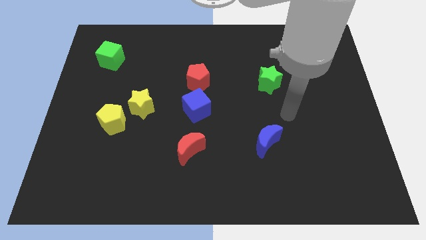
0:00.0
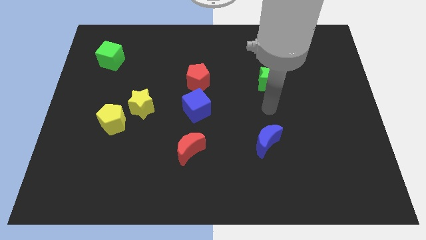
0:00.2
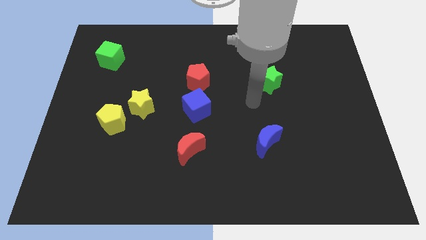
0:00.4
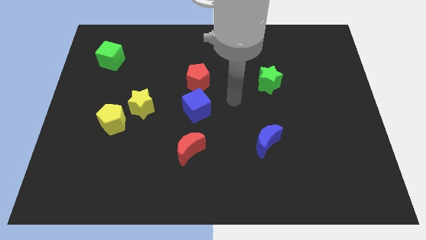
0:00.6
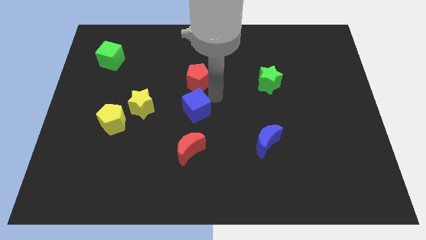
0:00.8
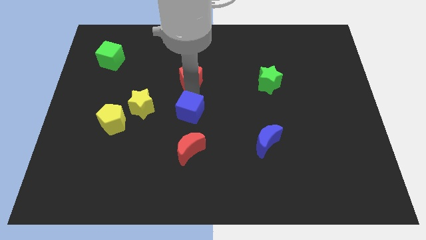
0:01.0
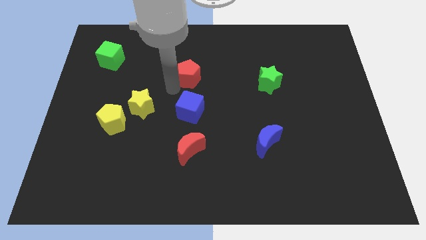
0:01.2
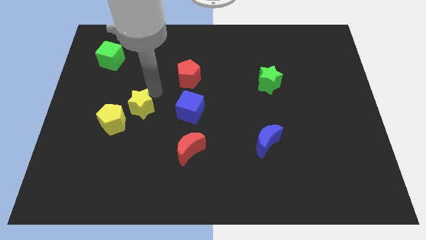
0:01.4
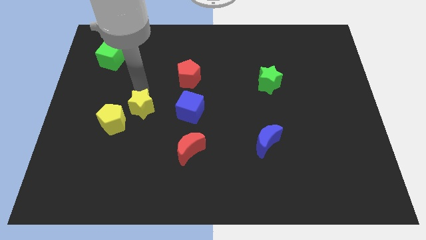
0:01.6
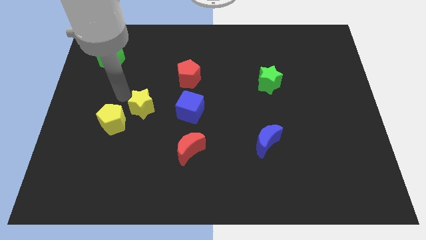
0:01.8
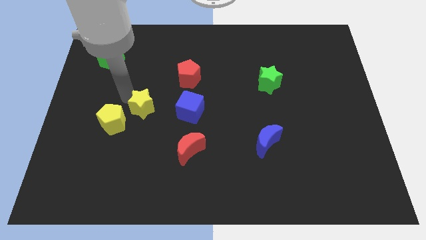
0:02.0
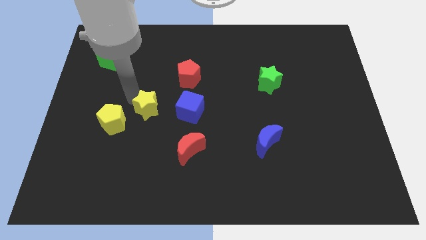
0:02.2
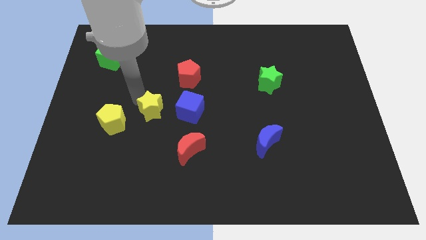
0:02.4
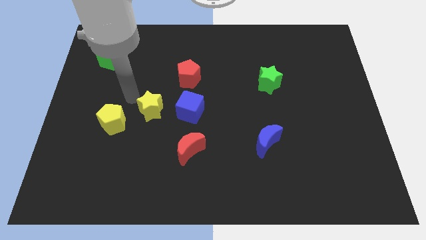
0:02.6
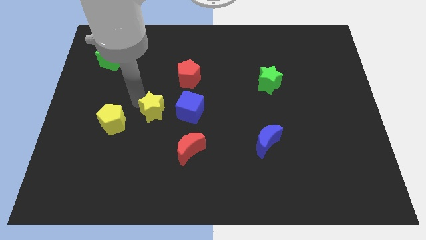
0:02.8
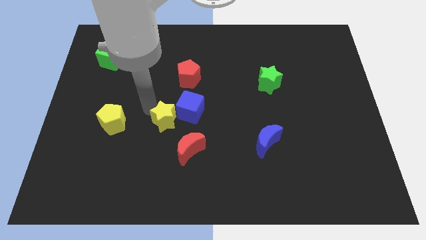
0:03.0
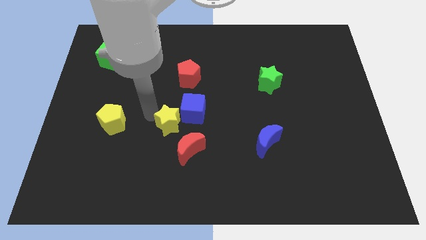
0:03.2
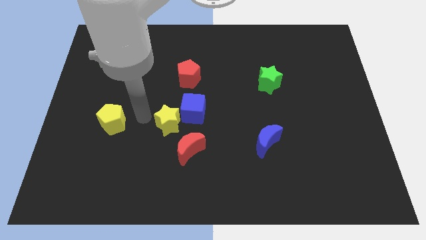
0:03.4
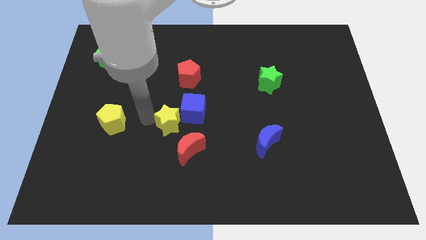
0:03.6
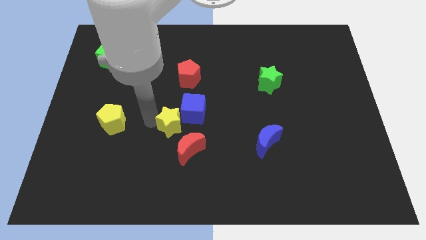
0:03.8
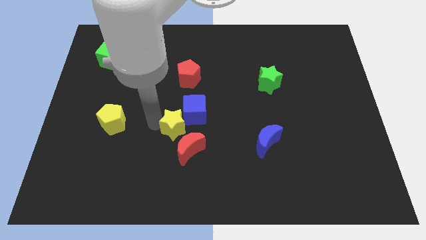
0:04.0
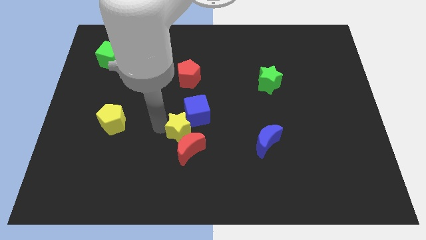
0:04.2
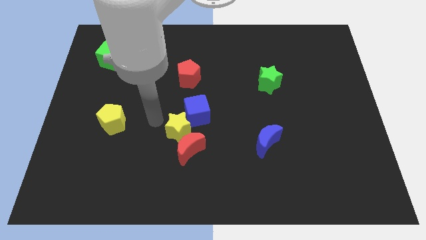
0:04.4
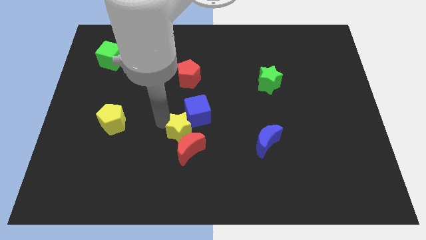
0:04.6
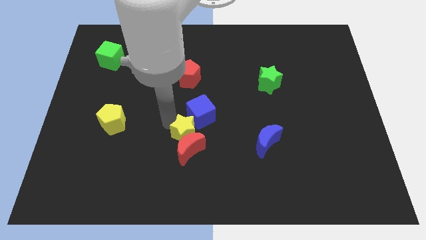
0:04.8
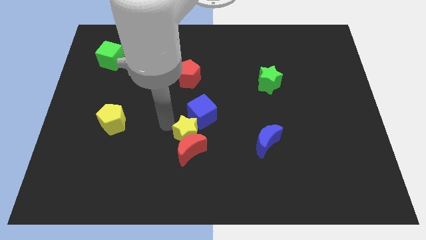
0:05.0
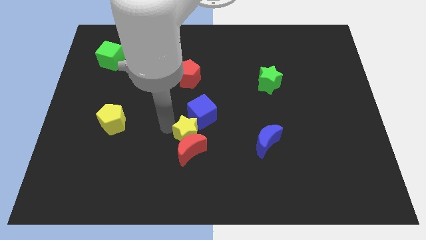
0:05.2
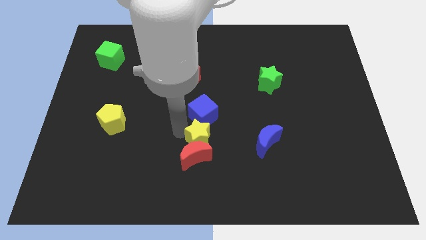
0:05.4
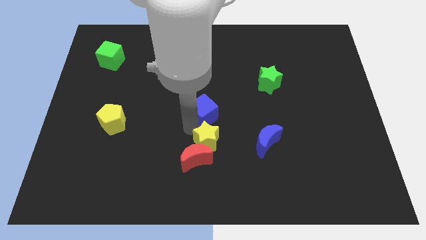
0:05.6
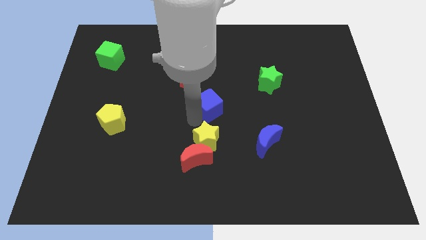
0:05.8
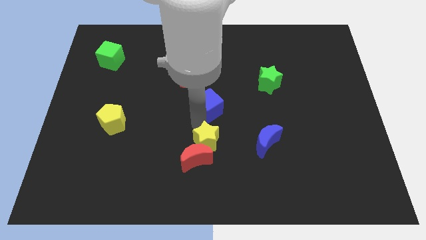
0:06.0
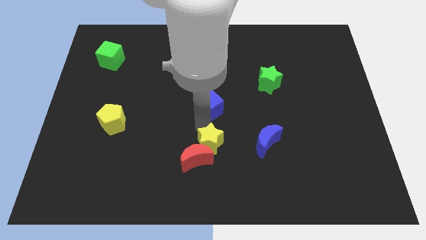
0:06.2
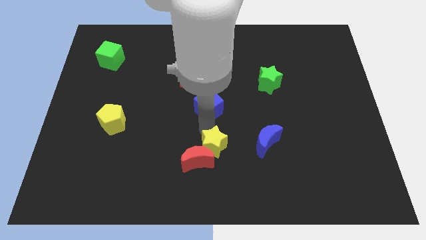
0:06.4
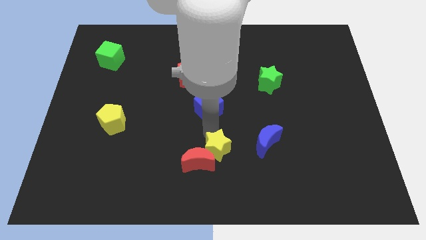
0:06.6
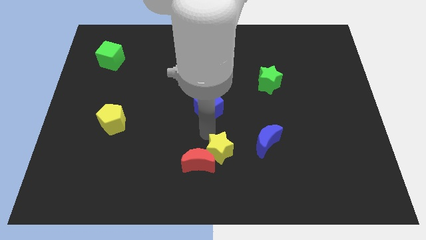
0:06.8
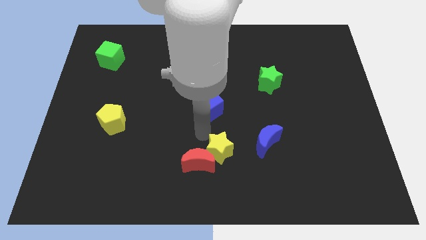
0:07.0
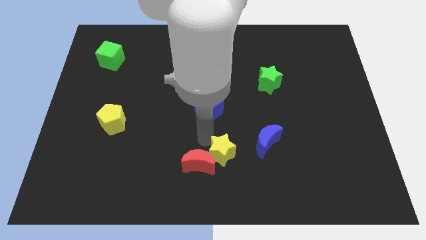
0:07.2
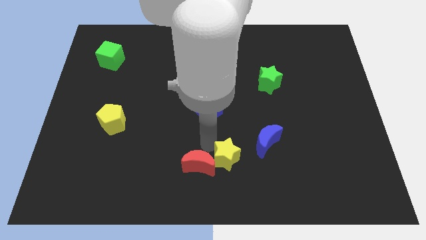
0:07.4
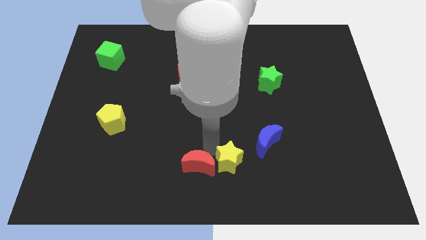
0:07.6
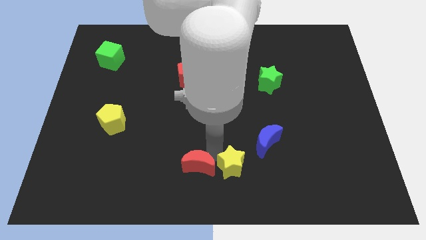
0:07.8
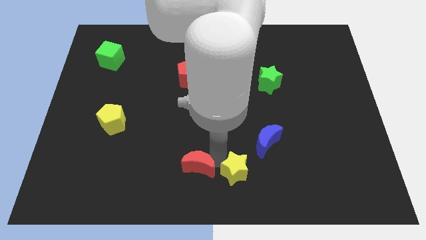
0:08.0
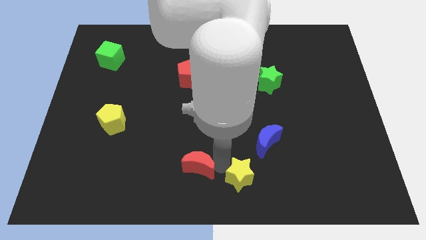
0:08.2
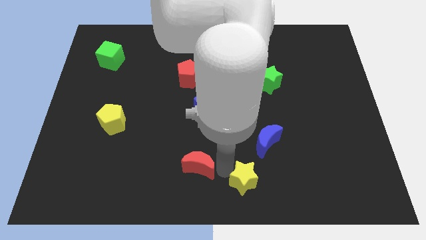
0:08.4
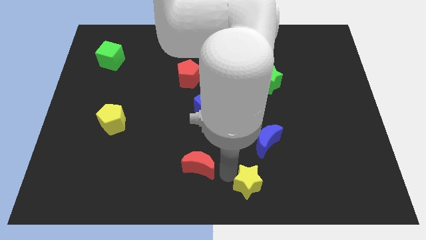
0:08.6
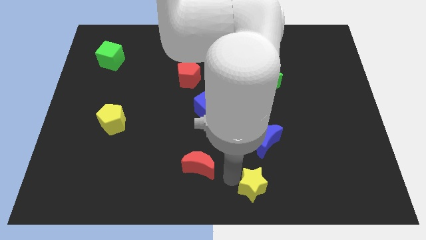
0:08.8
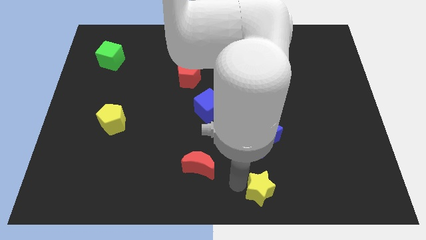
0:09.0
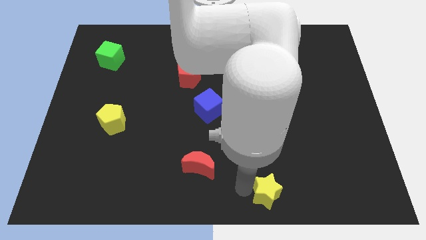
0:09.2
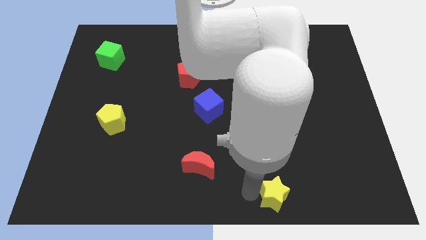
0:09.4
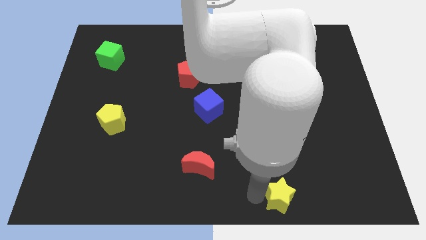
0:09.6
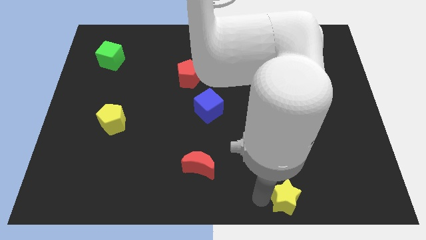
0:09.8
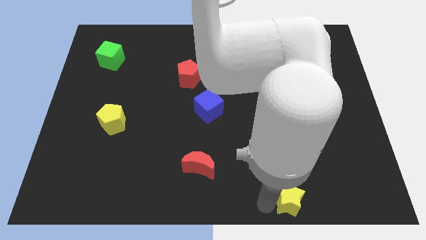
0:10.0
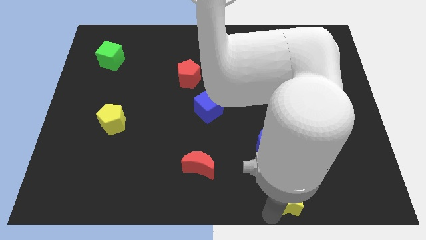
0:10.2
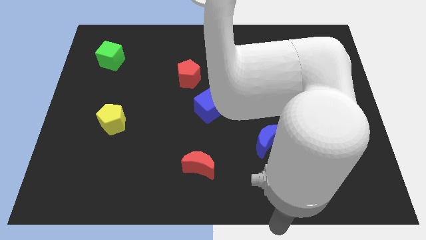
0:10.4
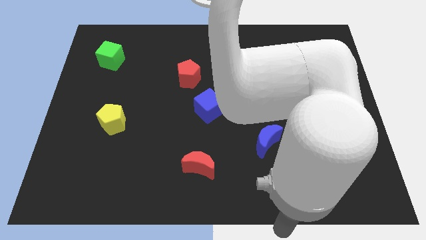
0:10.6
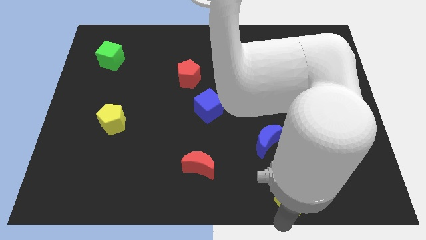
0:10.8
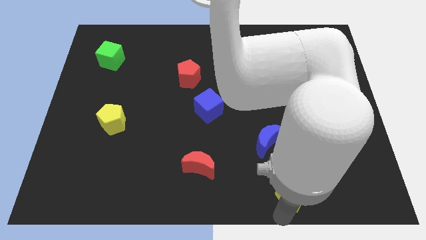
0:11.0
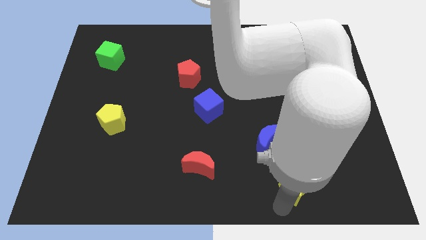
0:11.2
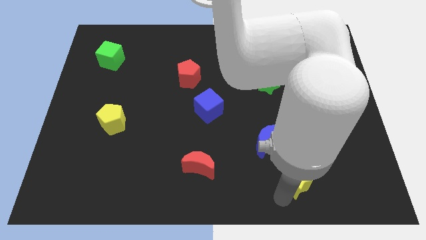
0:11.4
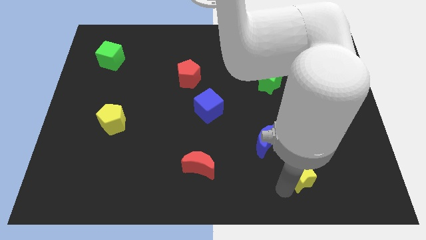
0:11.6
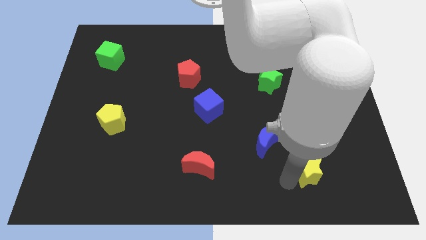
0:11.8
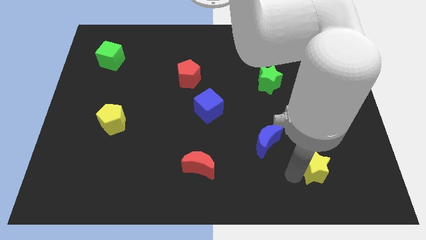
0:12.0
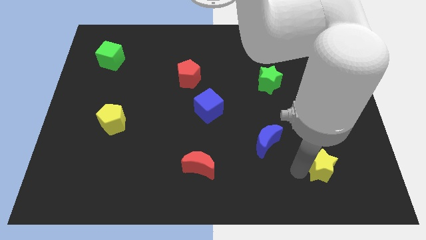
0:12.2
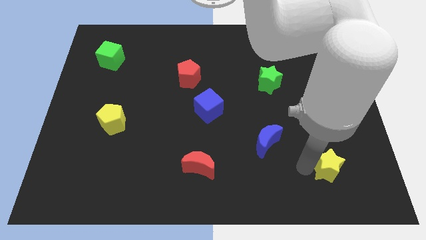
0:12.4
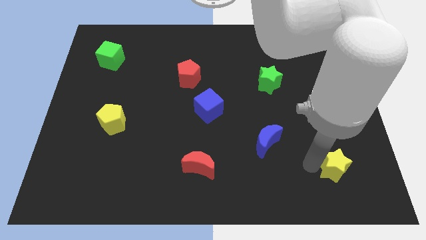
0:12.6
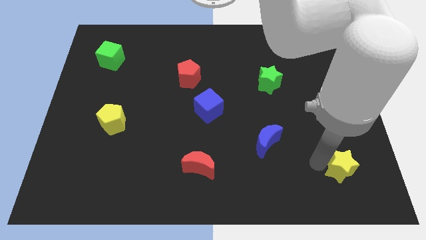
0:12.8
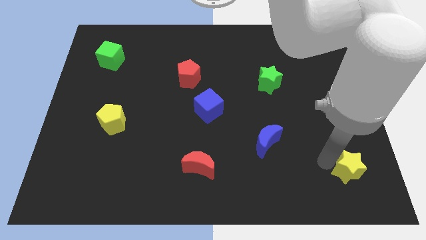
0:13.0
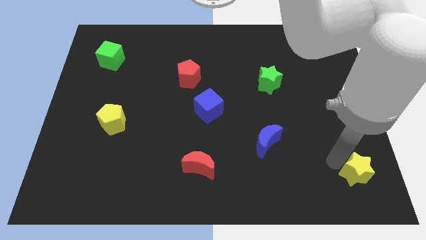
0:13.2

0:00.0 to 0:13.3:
push the yellow star to the bottom right of the board

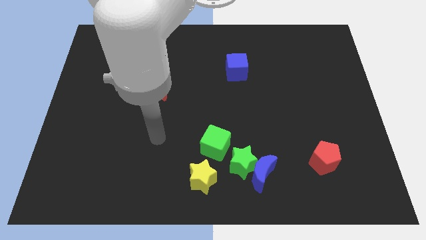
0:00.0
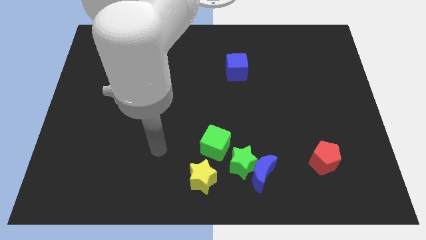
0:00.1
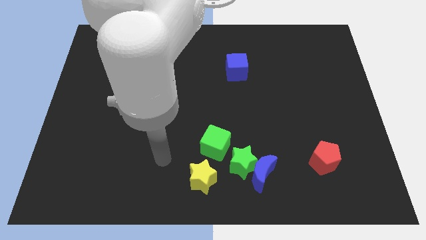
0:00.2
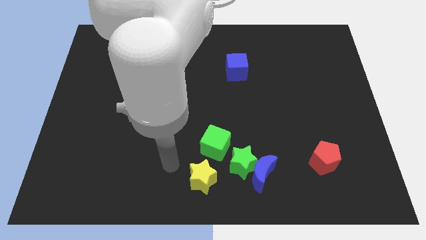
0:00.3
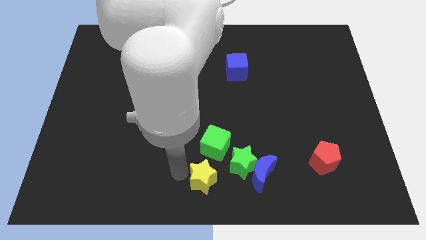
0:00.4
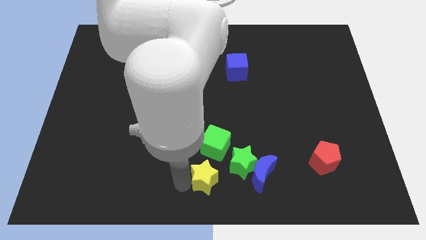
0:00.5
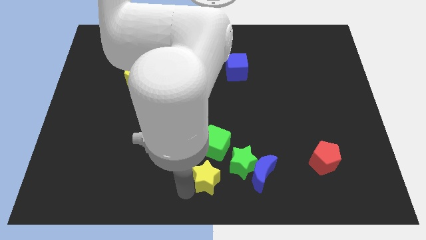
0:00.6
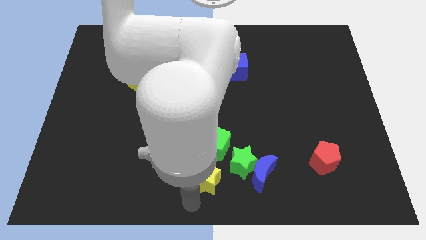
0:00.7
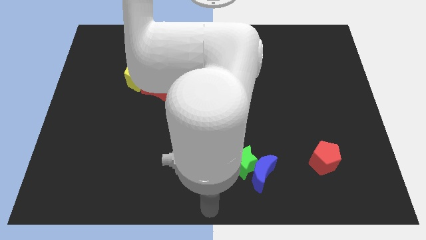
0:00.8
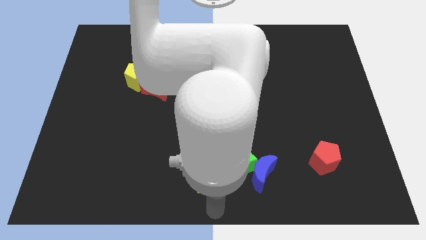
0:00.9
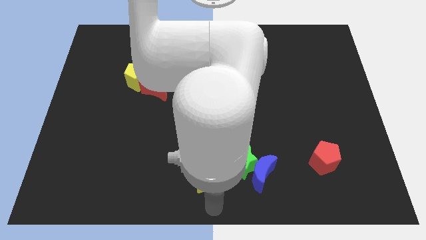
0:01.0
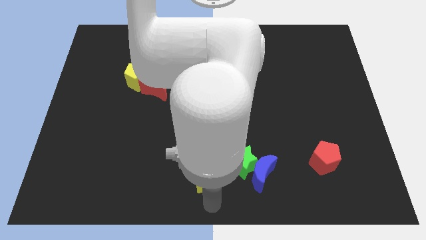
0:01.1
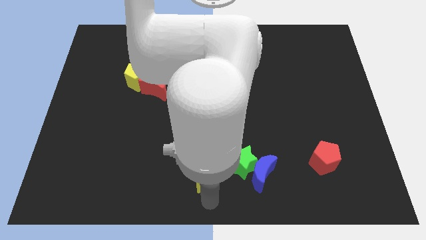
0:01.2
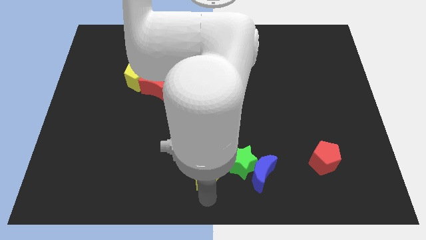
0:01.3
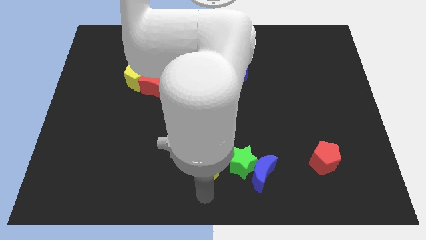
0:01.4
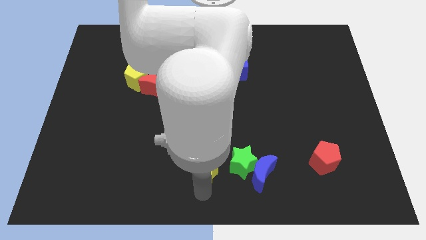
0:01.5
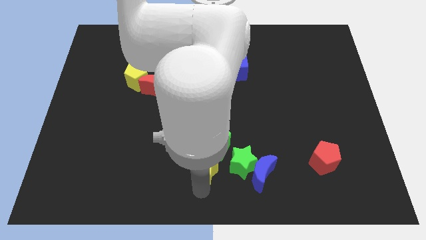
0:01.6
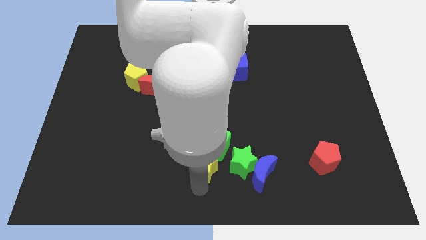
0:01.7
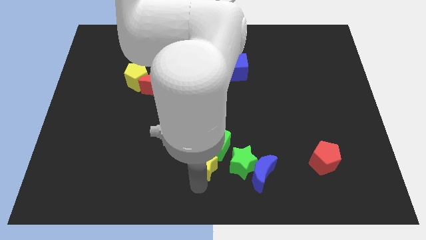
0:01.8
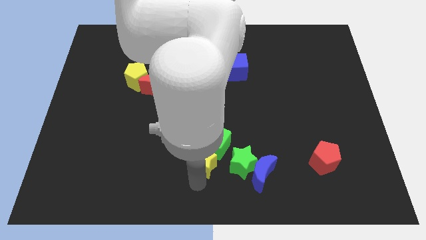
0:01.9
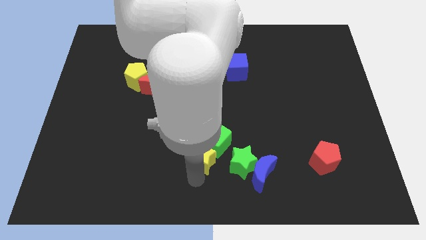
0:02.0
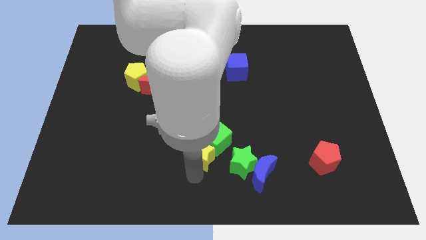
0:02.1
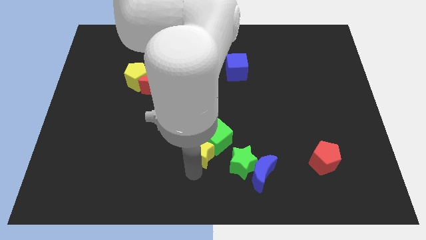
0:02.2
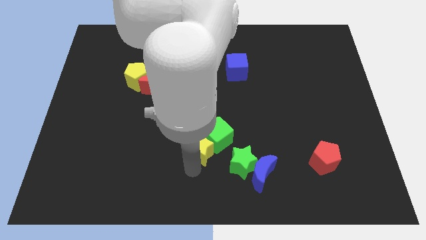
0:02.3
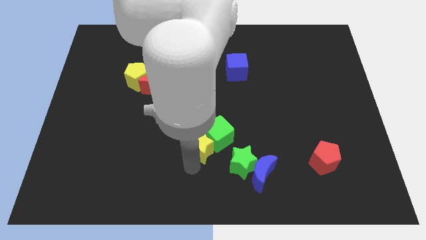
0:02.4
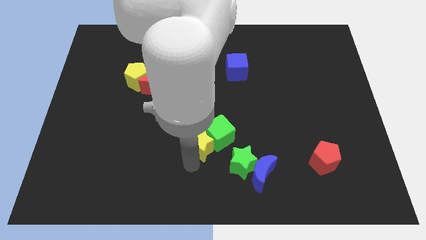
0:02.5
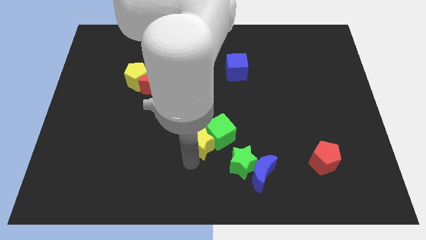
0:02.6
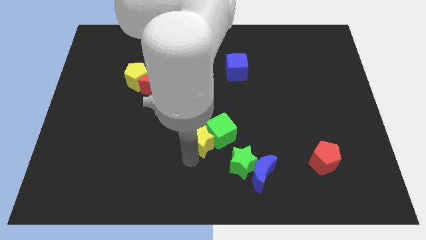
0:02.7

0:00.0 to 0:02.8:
move the yellow star to the center of the board
